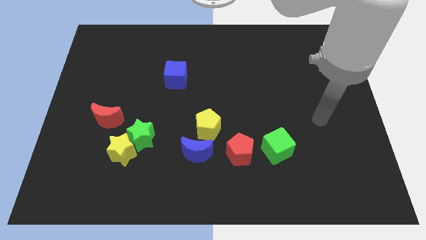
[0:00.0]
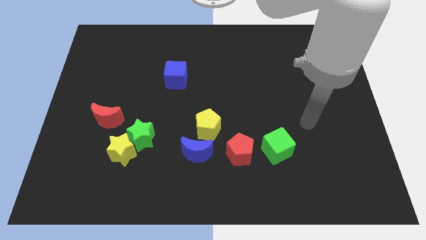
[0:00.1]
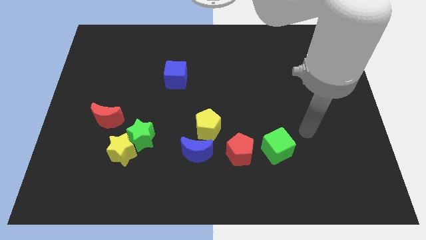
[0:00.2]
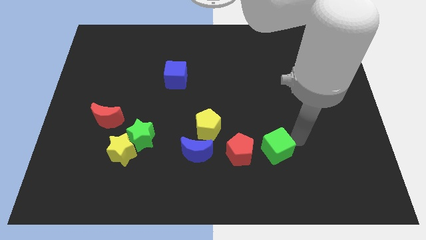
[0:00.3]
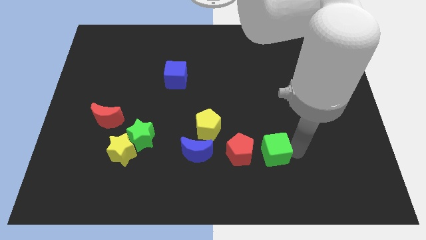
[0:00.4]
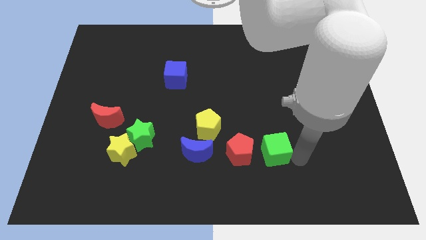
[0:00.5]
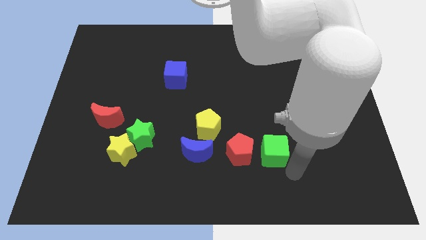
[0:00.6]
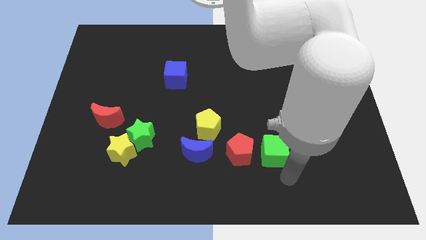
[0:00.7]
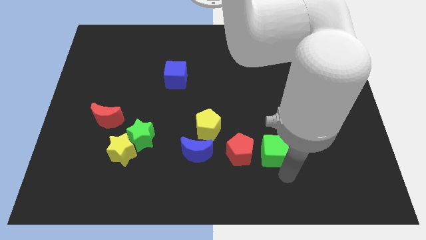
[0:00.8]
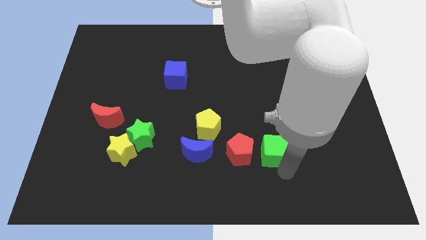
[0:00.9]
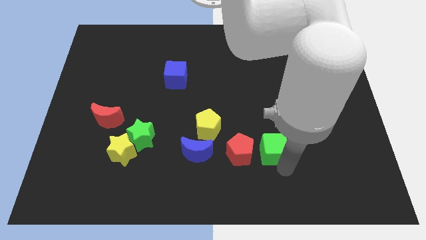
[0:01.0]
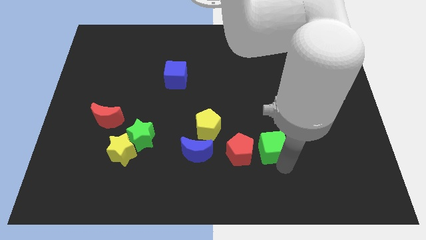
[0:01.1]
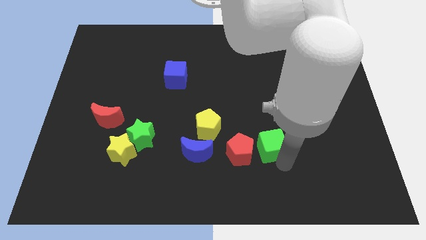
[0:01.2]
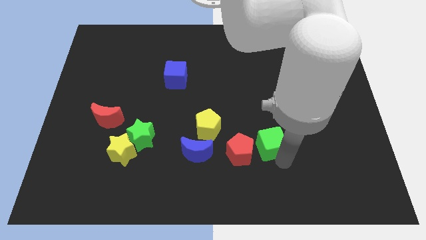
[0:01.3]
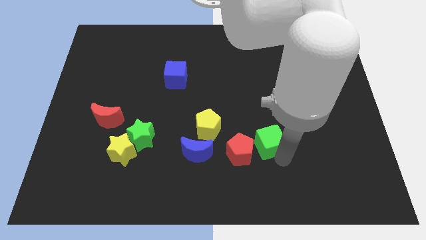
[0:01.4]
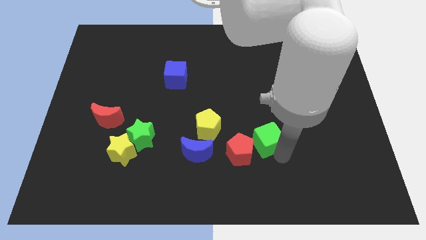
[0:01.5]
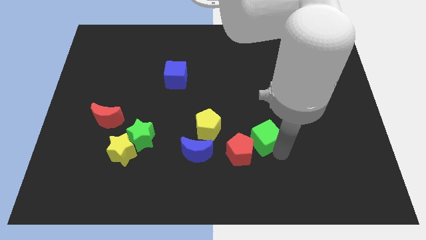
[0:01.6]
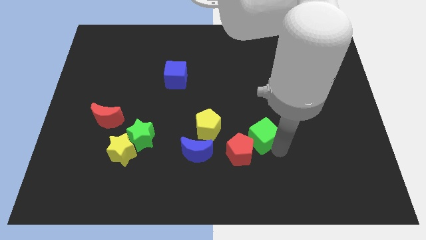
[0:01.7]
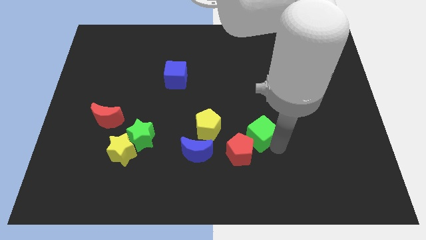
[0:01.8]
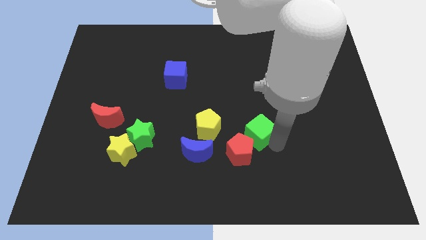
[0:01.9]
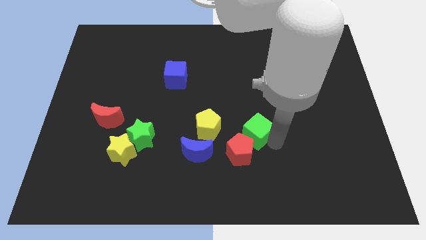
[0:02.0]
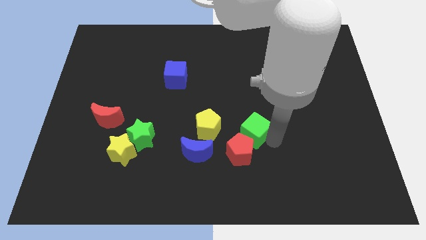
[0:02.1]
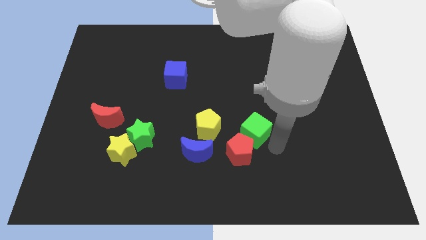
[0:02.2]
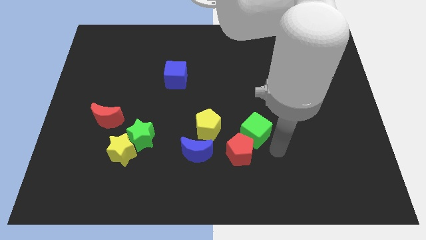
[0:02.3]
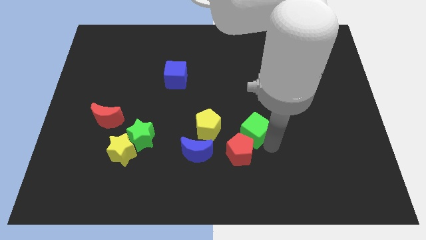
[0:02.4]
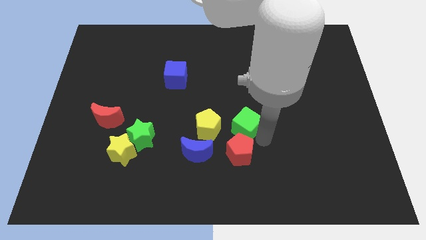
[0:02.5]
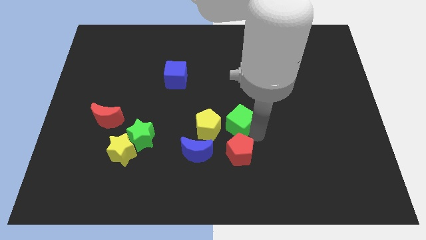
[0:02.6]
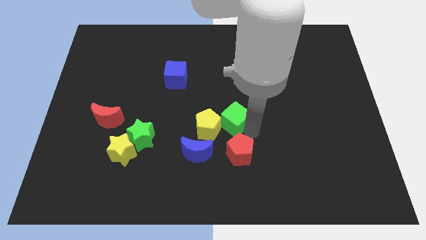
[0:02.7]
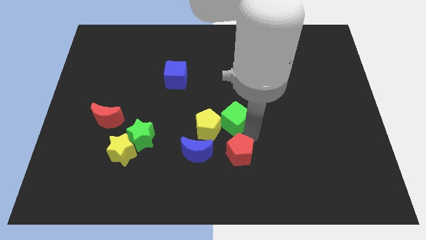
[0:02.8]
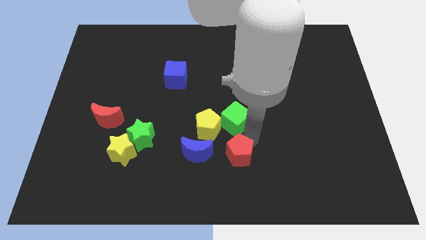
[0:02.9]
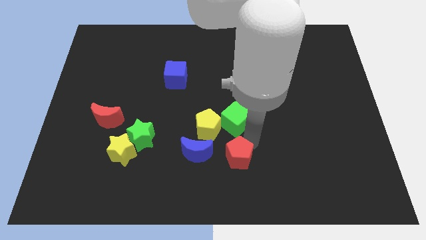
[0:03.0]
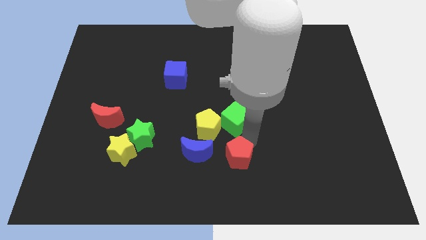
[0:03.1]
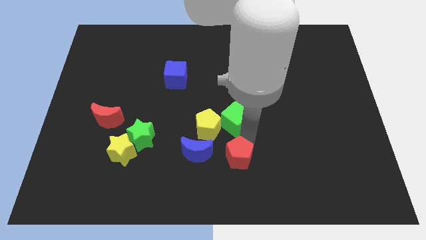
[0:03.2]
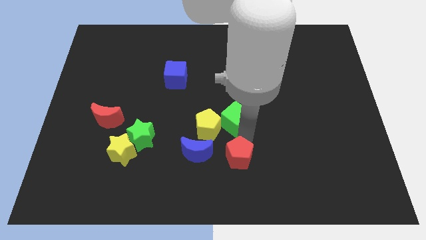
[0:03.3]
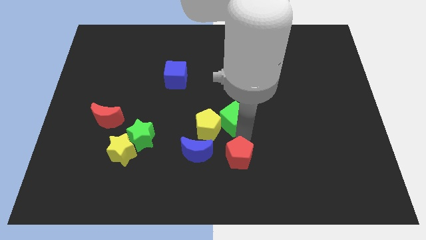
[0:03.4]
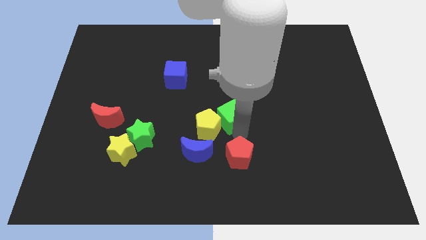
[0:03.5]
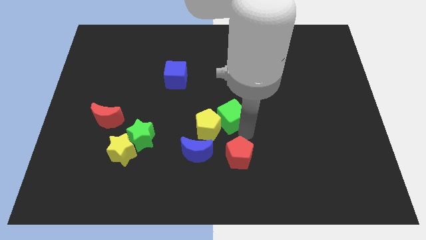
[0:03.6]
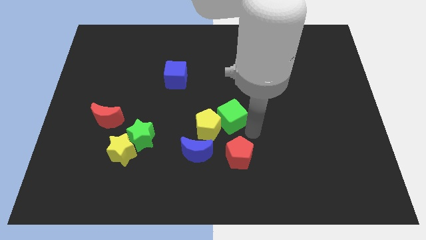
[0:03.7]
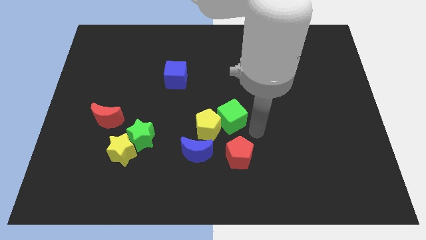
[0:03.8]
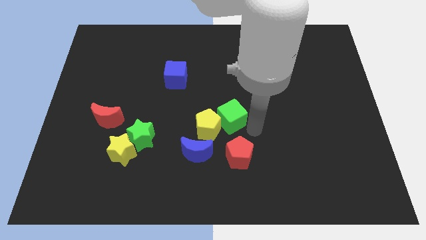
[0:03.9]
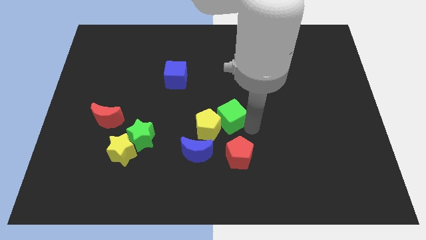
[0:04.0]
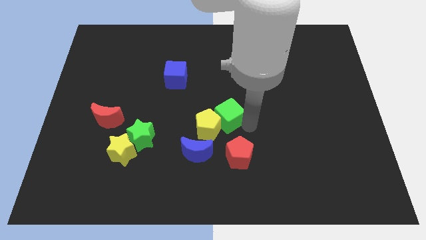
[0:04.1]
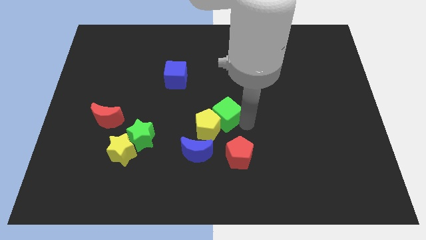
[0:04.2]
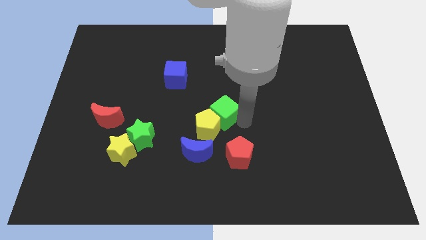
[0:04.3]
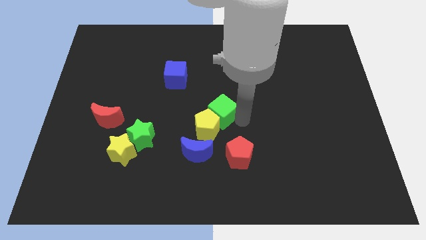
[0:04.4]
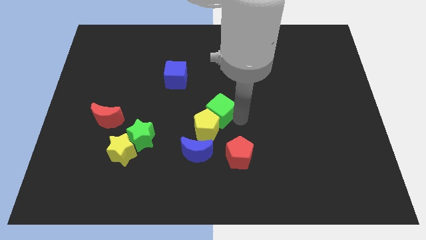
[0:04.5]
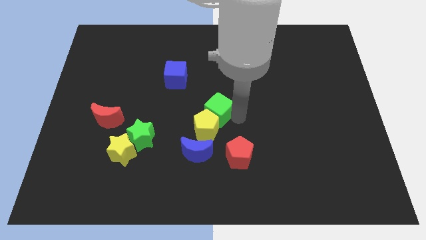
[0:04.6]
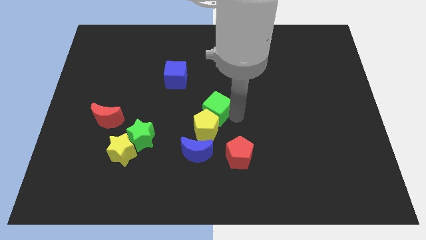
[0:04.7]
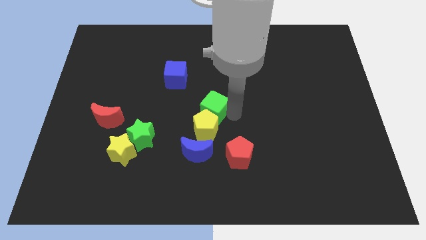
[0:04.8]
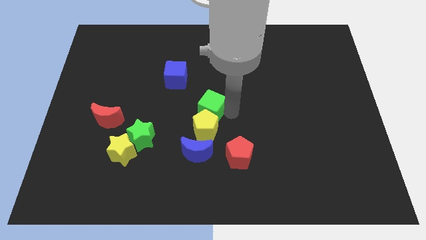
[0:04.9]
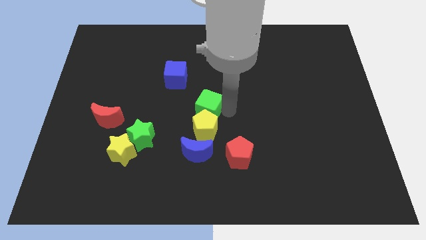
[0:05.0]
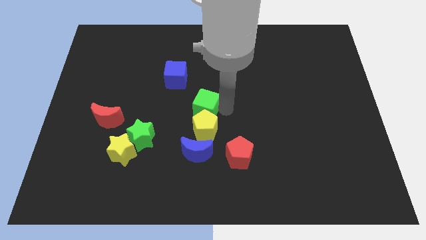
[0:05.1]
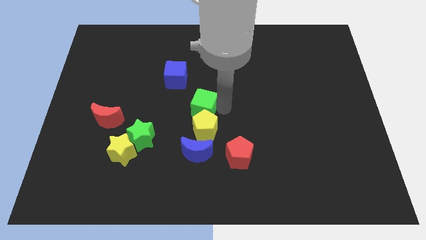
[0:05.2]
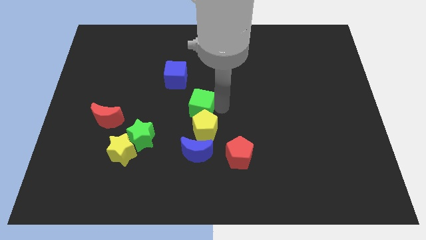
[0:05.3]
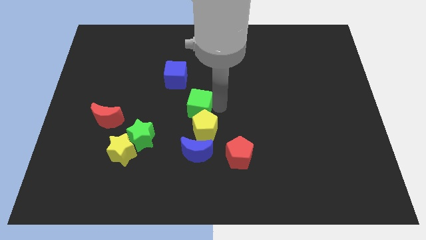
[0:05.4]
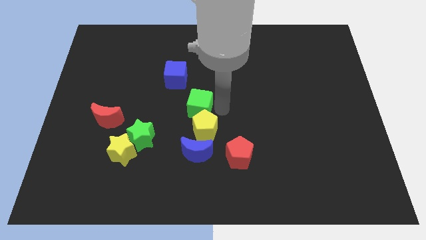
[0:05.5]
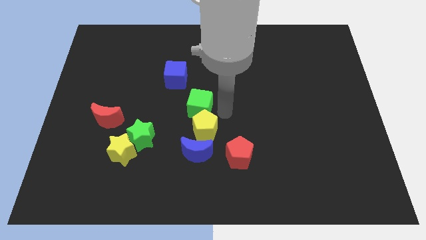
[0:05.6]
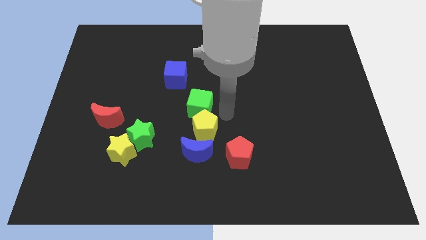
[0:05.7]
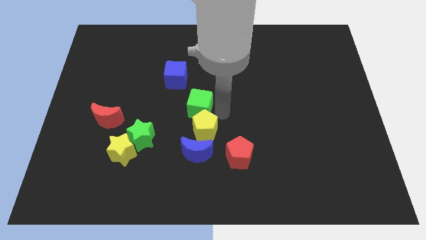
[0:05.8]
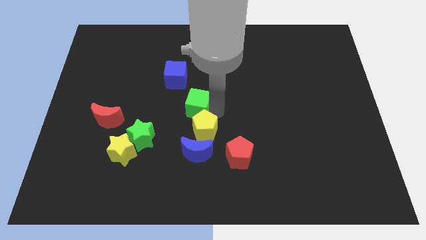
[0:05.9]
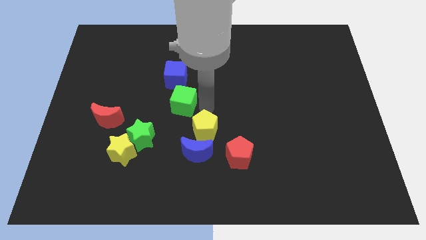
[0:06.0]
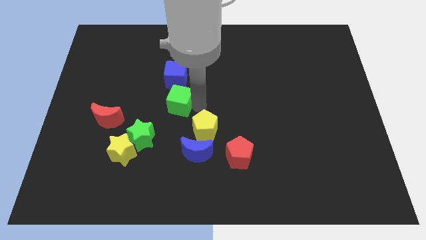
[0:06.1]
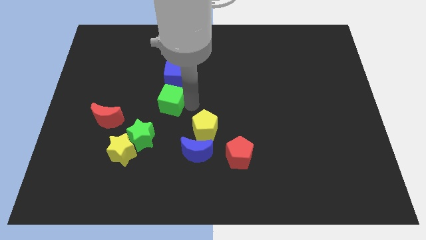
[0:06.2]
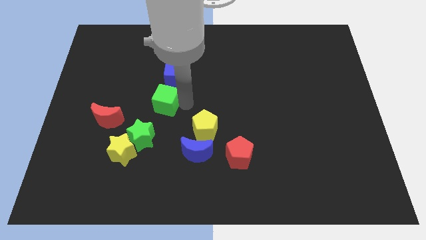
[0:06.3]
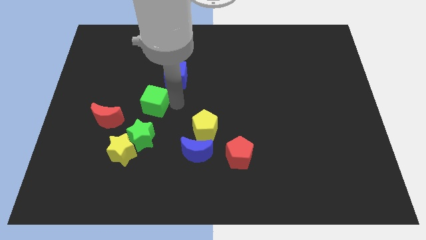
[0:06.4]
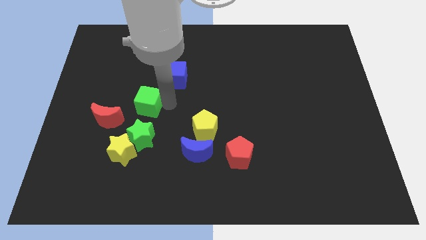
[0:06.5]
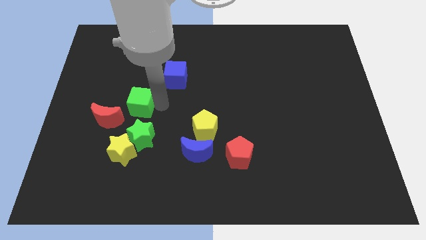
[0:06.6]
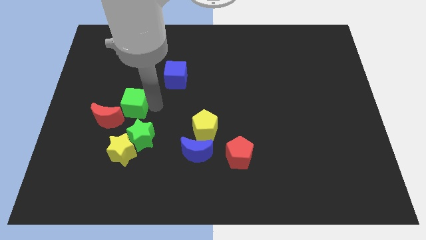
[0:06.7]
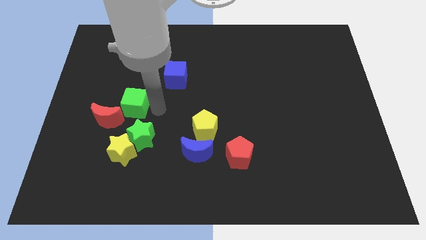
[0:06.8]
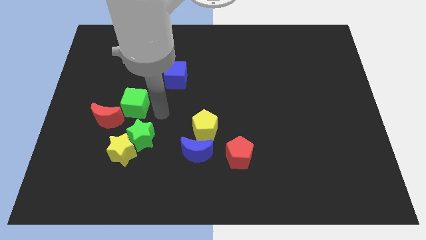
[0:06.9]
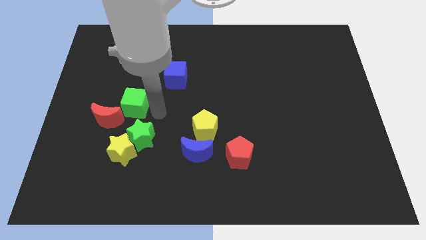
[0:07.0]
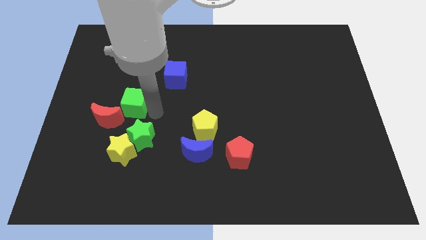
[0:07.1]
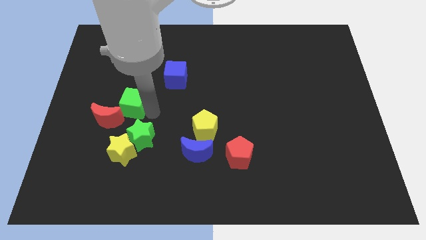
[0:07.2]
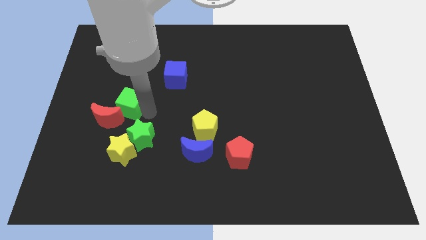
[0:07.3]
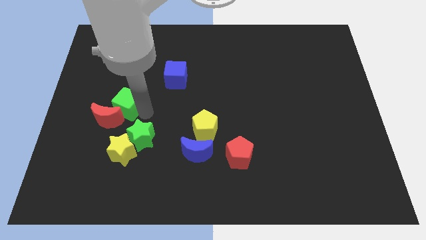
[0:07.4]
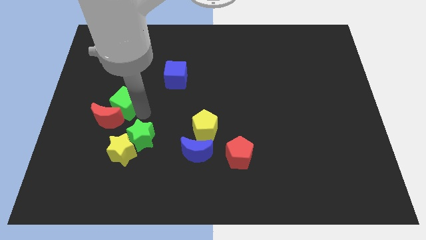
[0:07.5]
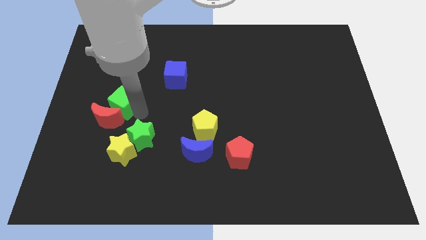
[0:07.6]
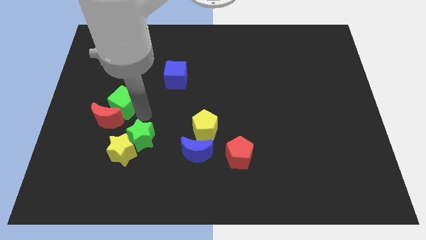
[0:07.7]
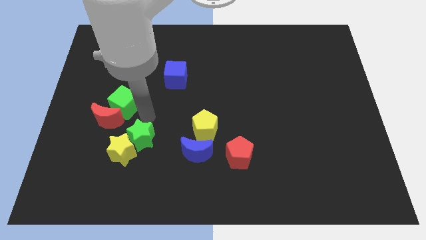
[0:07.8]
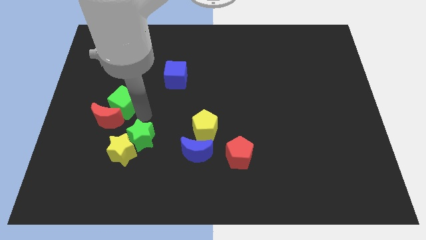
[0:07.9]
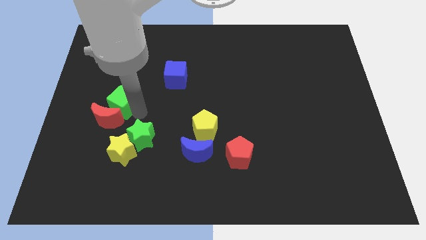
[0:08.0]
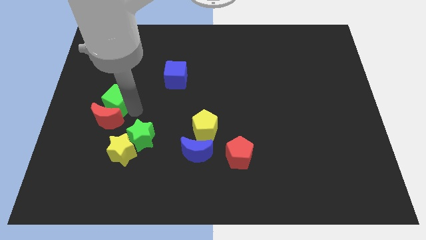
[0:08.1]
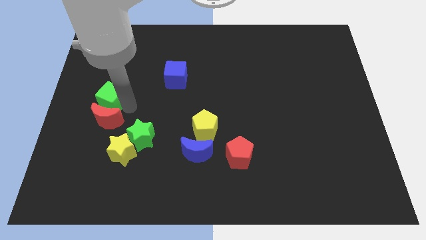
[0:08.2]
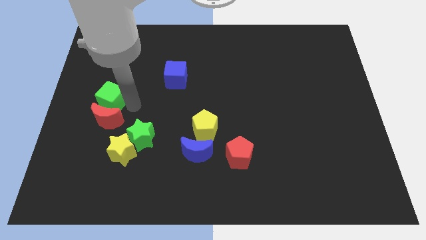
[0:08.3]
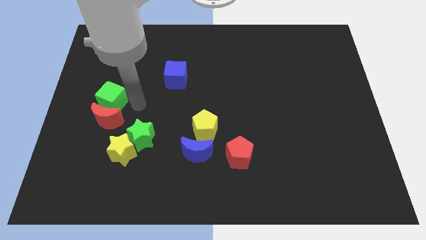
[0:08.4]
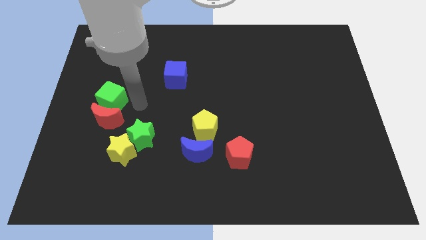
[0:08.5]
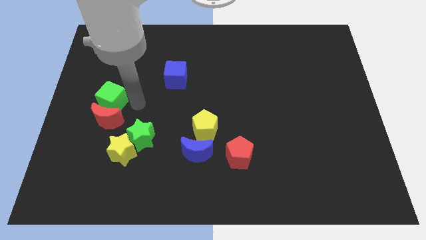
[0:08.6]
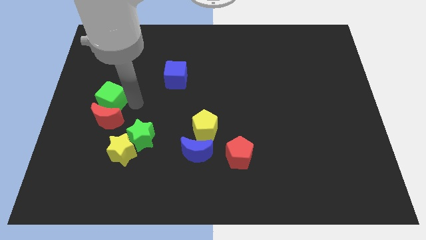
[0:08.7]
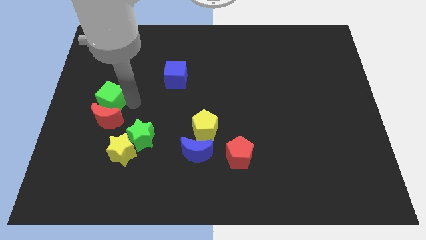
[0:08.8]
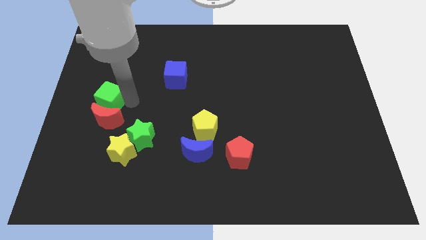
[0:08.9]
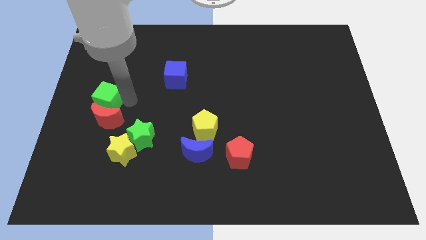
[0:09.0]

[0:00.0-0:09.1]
move the green cube to the left side of the board
